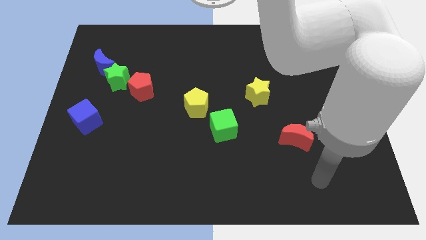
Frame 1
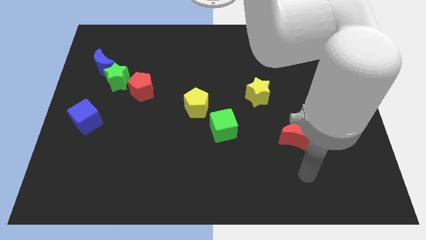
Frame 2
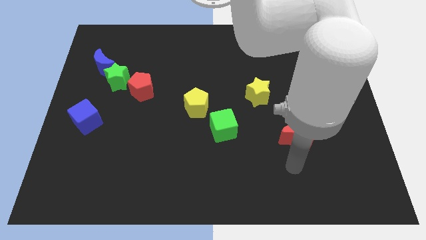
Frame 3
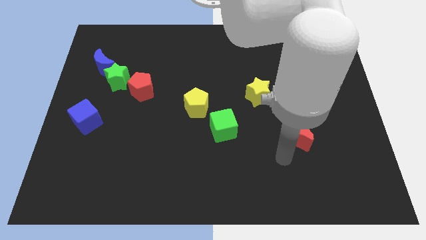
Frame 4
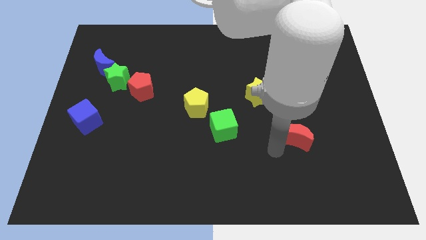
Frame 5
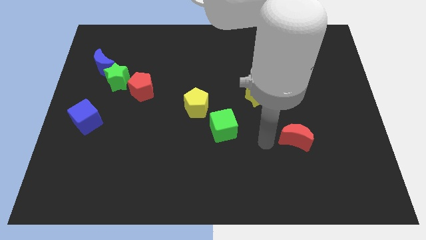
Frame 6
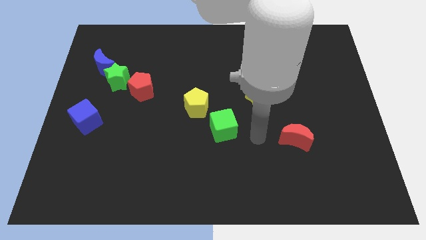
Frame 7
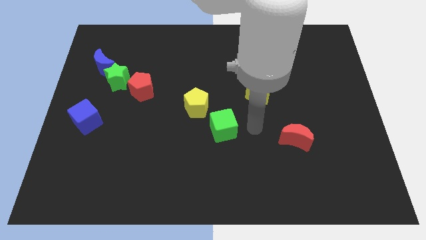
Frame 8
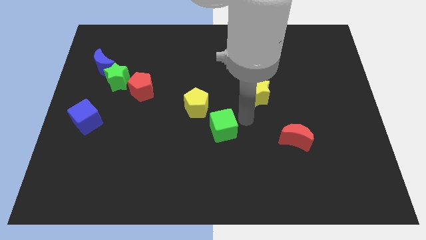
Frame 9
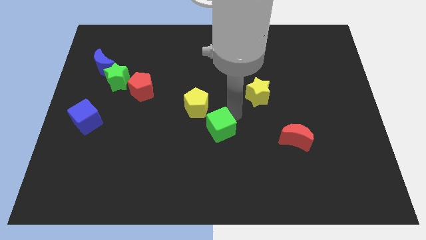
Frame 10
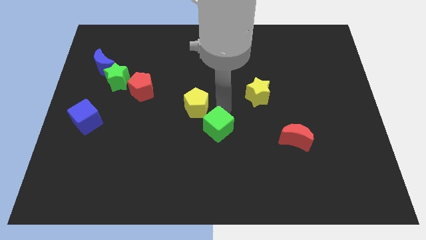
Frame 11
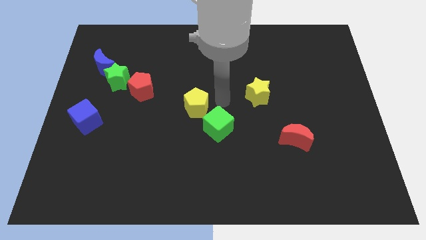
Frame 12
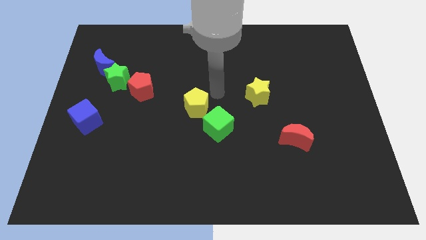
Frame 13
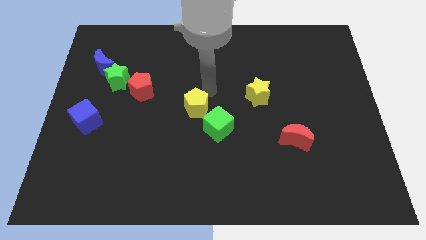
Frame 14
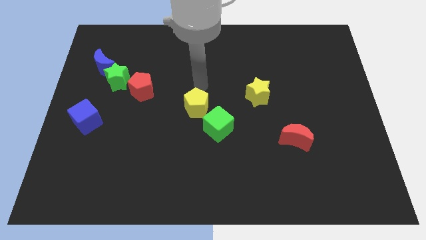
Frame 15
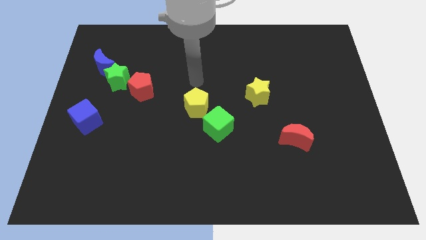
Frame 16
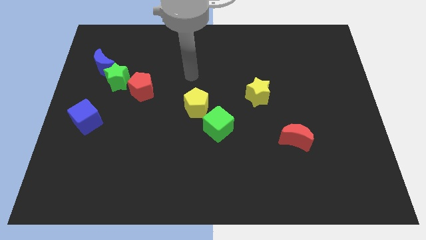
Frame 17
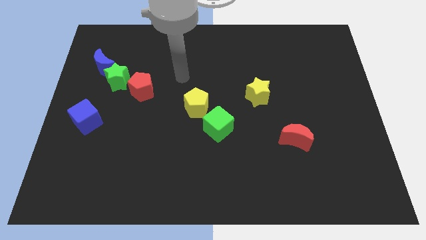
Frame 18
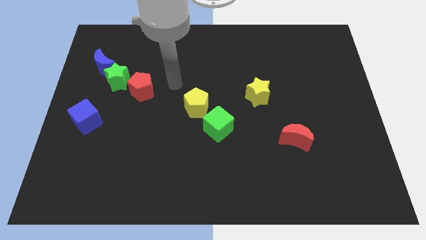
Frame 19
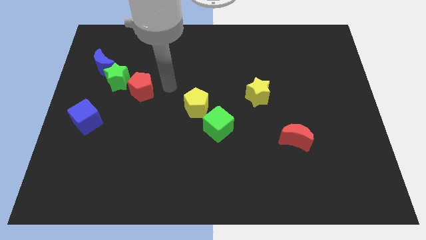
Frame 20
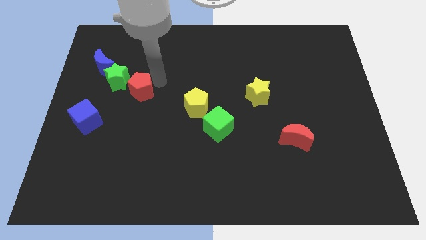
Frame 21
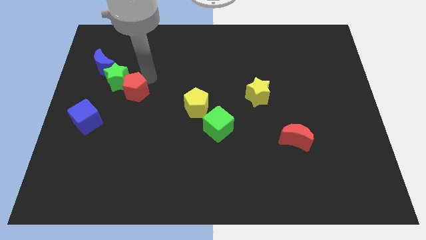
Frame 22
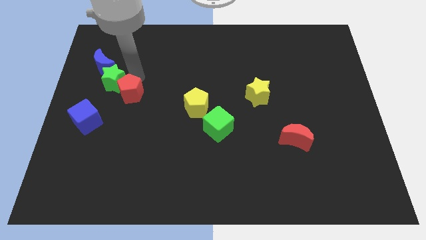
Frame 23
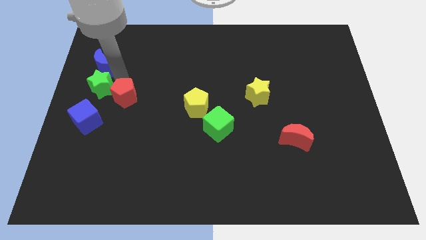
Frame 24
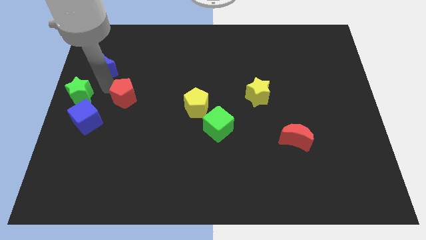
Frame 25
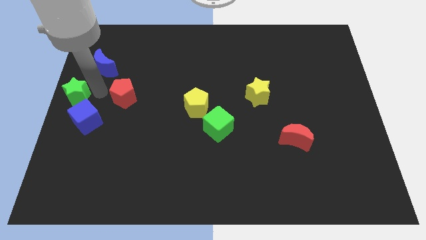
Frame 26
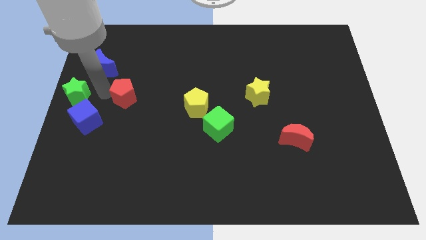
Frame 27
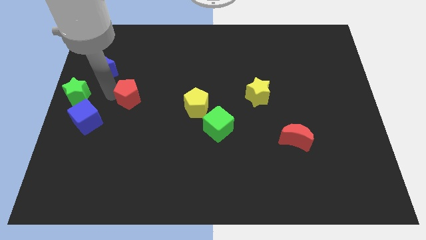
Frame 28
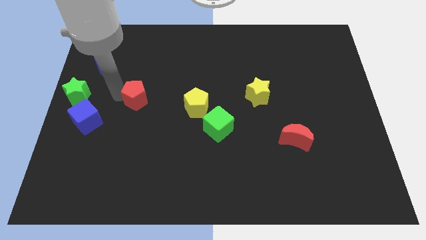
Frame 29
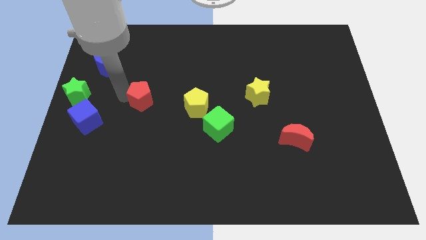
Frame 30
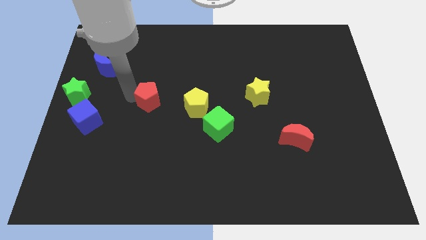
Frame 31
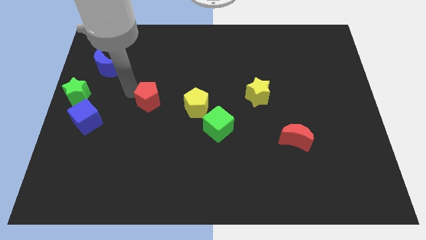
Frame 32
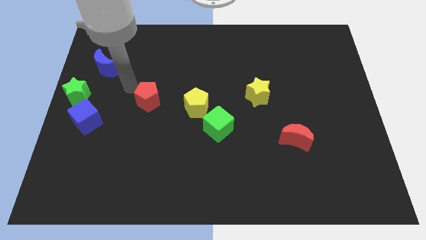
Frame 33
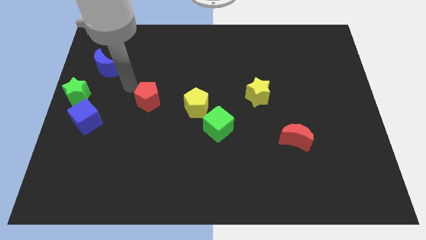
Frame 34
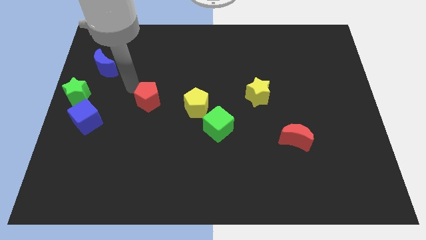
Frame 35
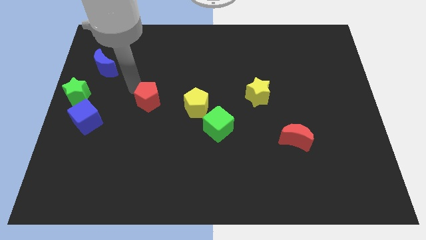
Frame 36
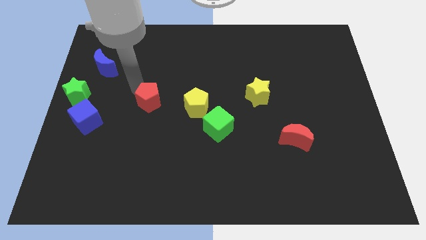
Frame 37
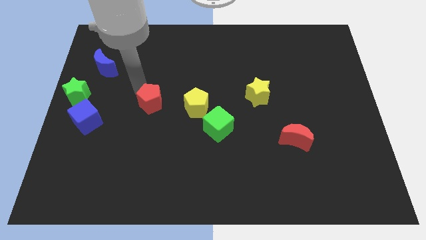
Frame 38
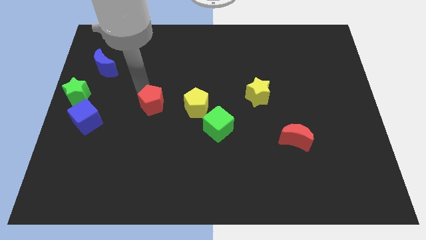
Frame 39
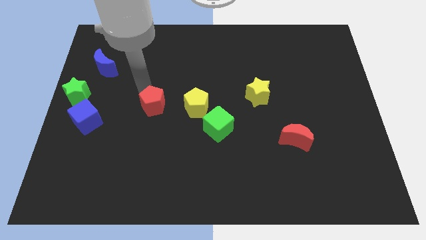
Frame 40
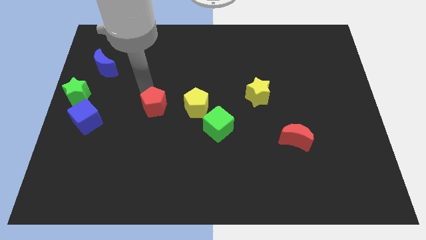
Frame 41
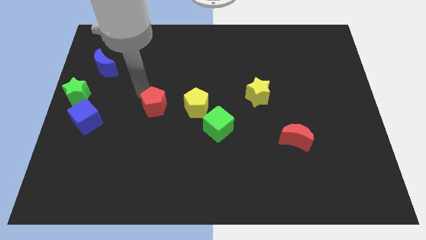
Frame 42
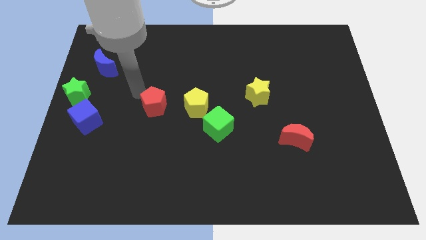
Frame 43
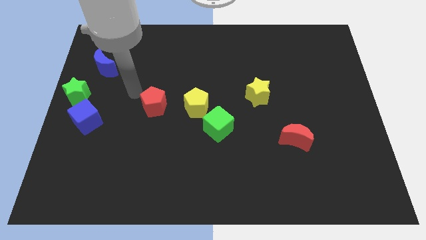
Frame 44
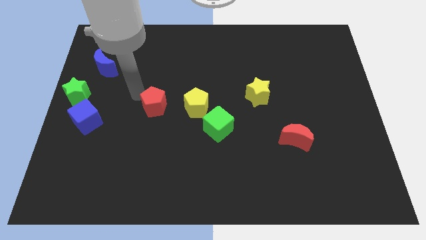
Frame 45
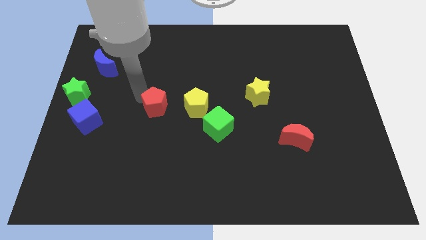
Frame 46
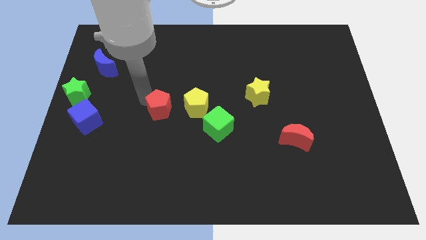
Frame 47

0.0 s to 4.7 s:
push the red pentagon down and then to the right a bit

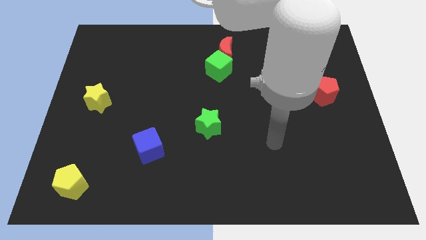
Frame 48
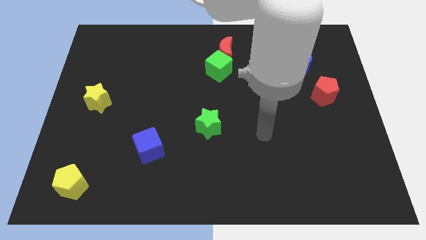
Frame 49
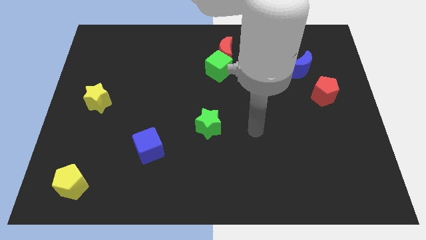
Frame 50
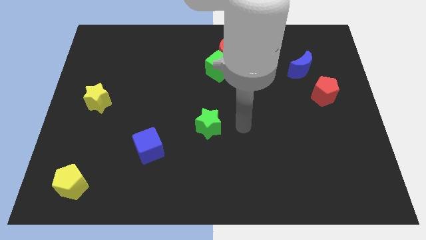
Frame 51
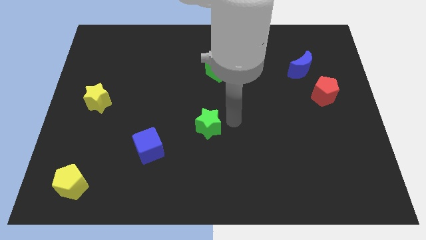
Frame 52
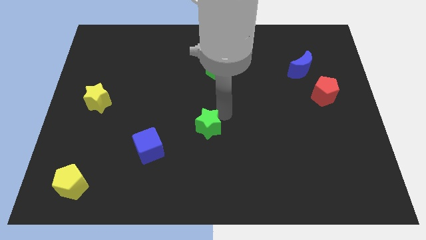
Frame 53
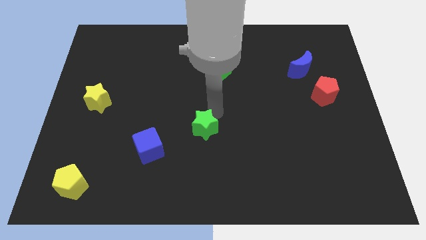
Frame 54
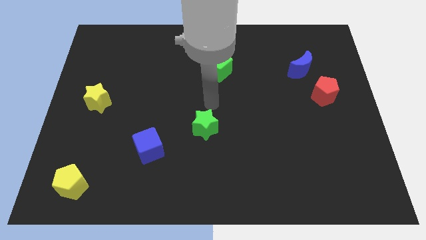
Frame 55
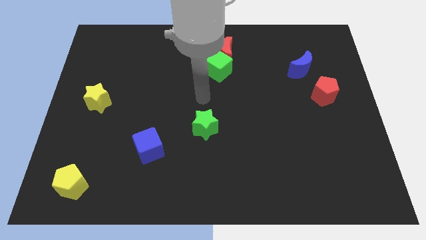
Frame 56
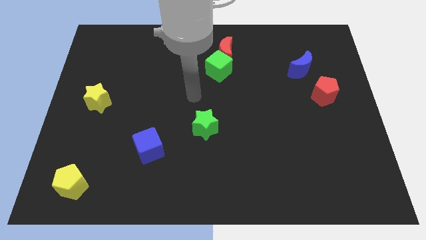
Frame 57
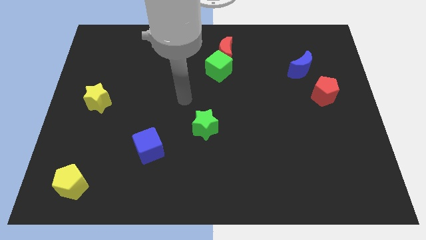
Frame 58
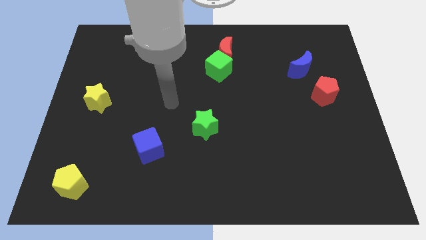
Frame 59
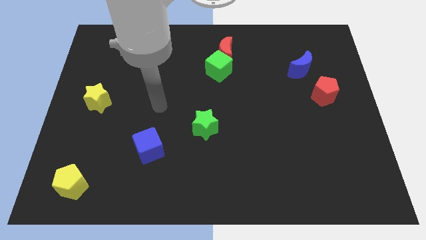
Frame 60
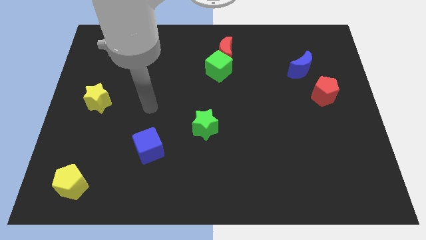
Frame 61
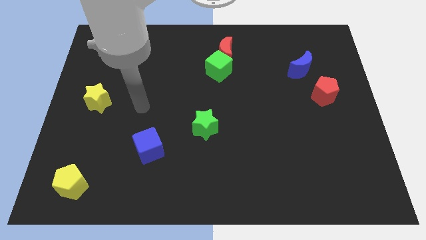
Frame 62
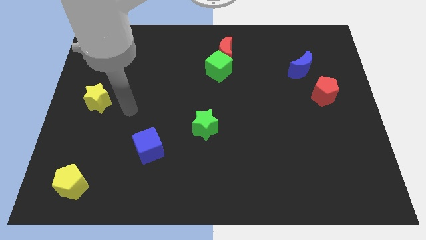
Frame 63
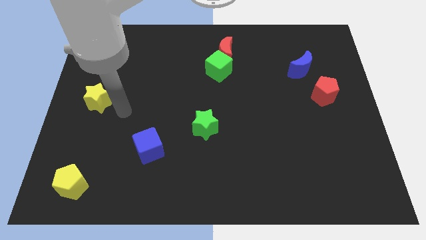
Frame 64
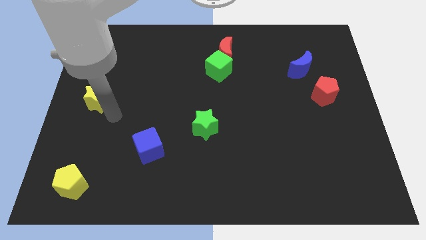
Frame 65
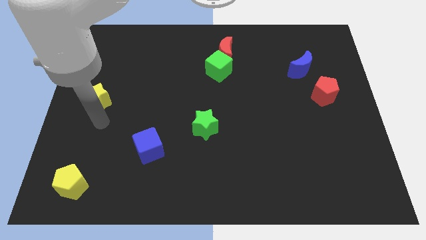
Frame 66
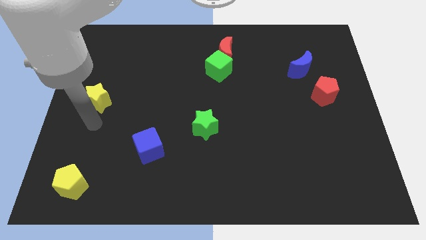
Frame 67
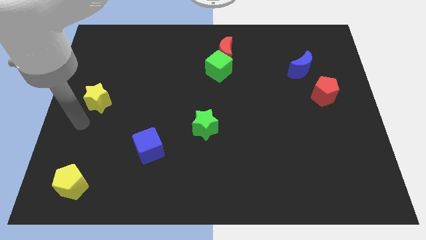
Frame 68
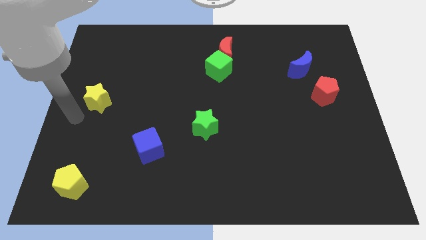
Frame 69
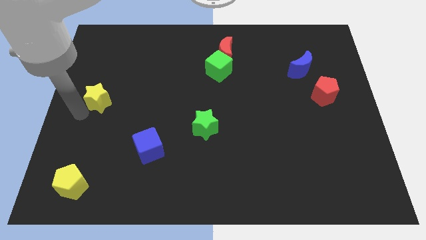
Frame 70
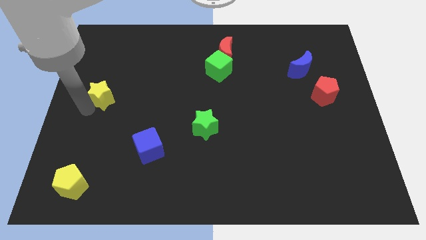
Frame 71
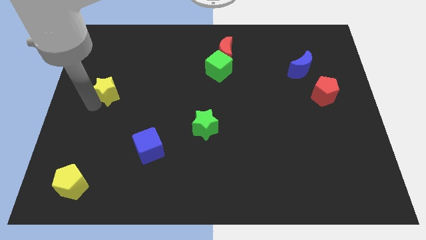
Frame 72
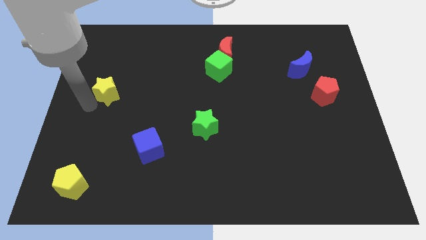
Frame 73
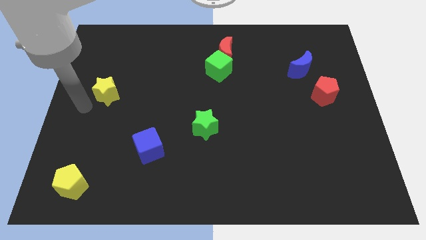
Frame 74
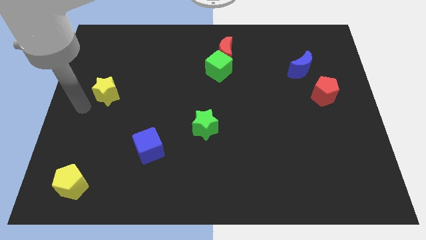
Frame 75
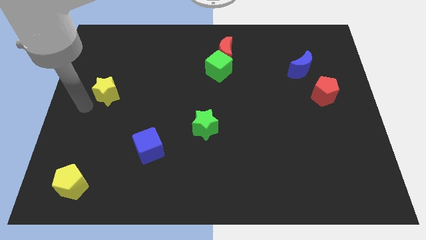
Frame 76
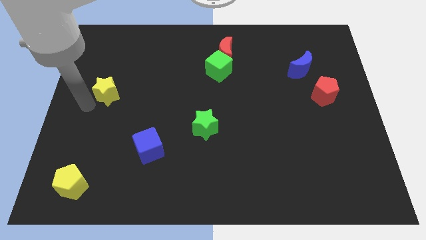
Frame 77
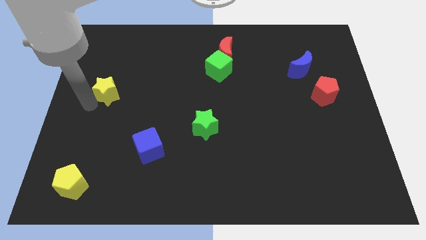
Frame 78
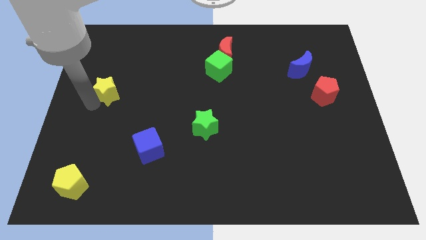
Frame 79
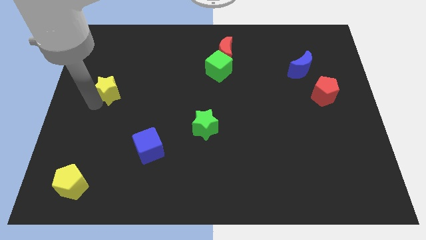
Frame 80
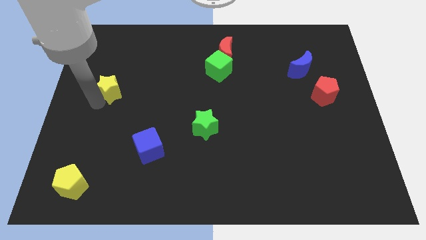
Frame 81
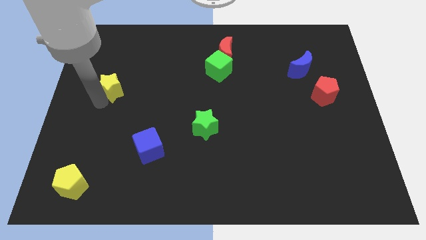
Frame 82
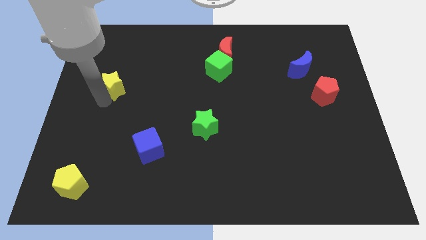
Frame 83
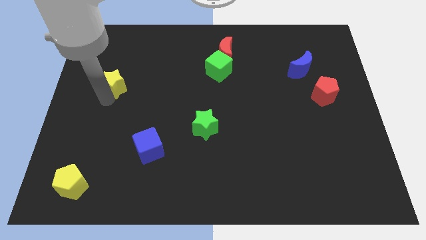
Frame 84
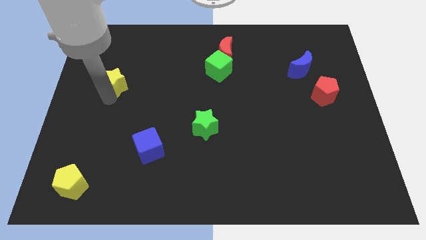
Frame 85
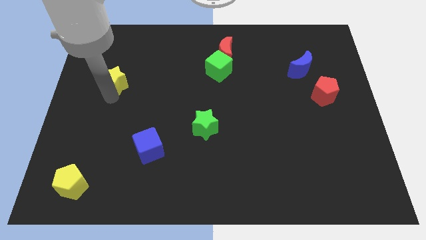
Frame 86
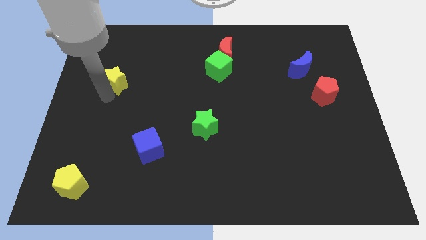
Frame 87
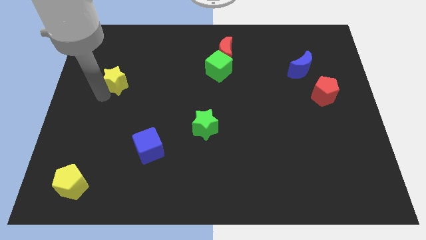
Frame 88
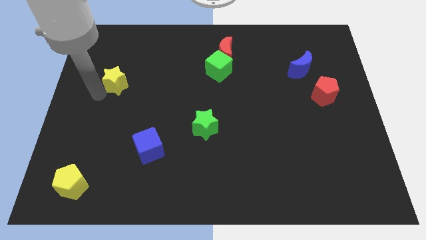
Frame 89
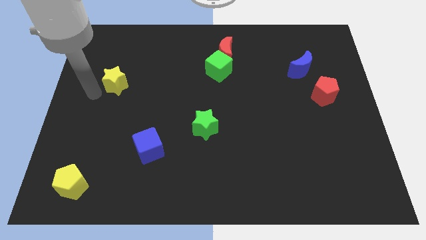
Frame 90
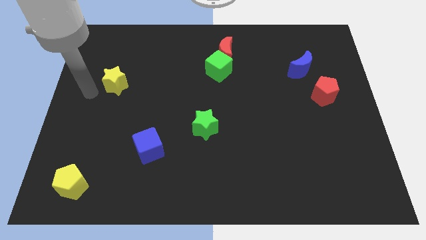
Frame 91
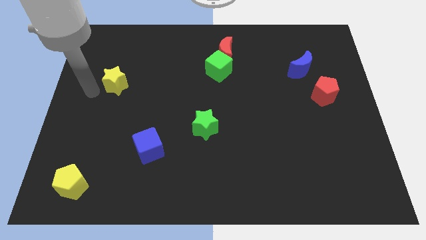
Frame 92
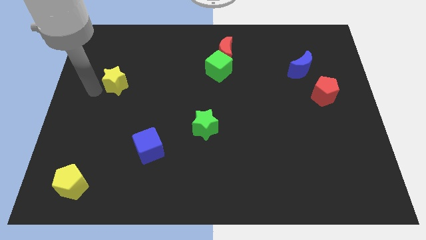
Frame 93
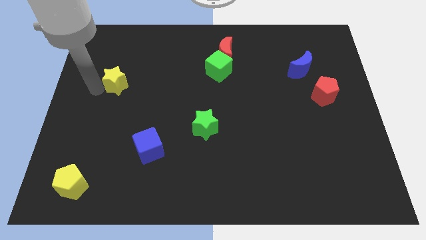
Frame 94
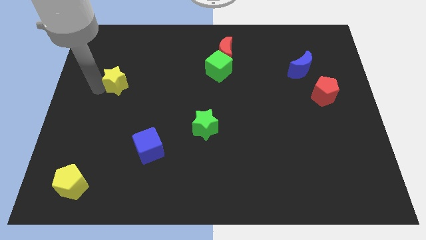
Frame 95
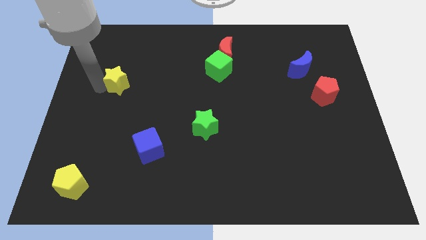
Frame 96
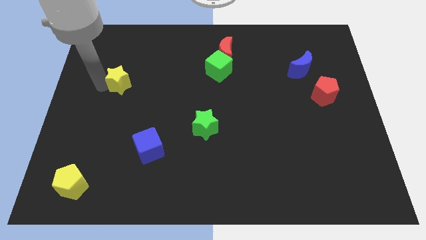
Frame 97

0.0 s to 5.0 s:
move the yellow star slightly upwards and to the right diagonally
